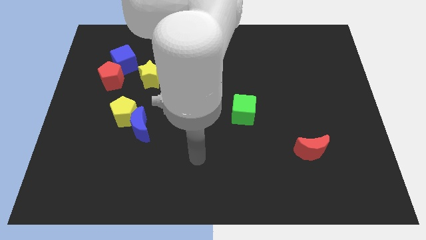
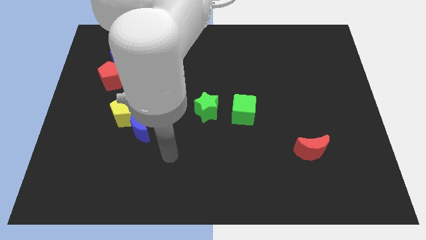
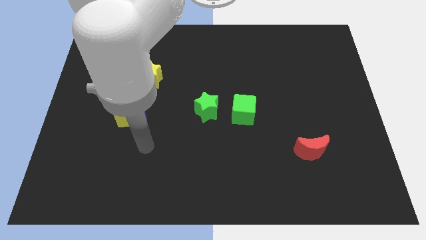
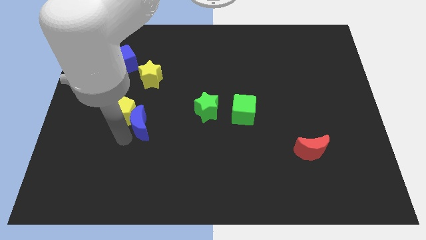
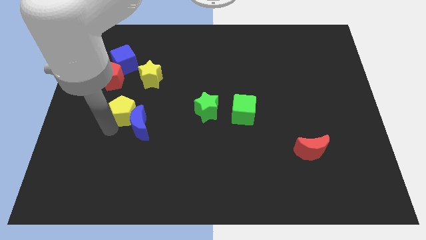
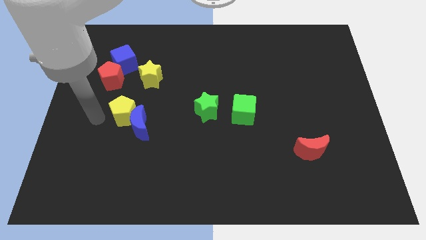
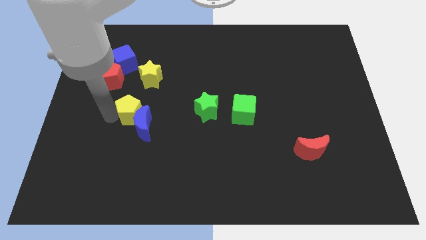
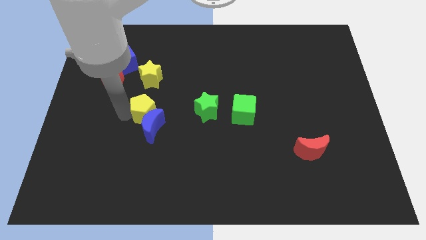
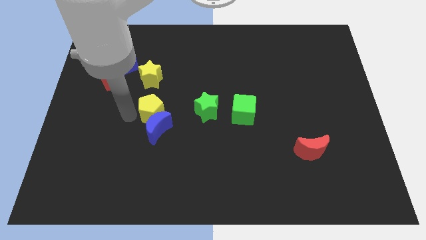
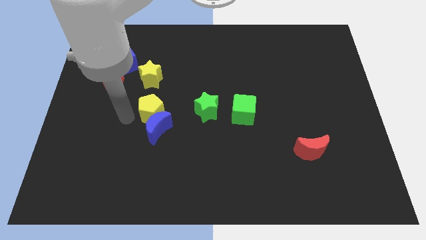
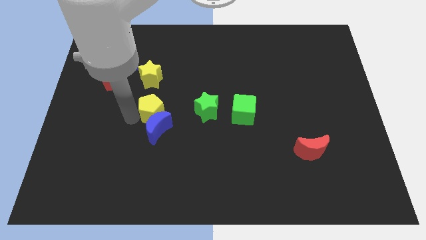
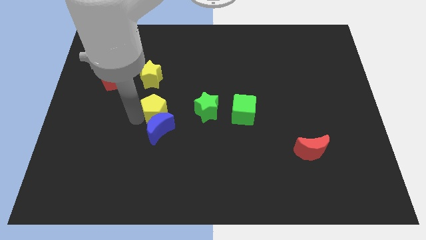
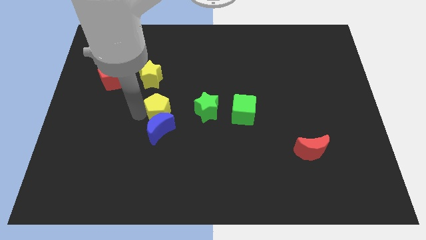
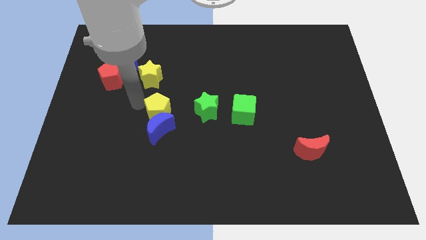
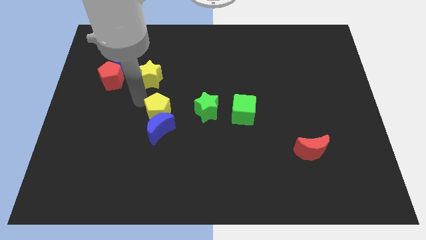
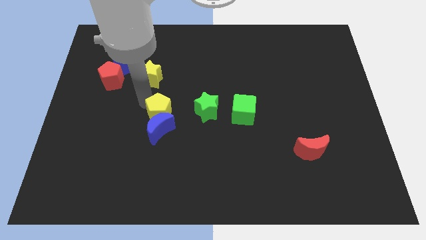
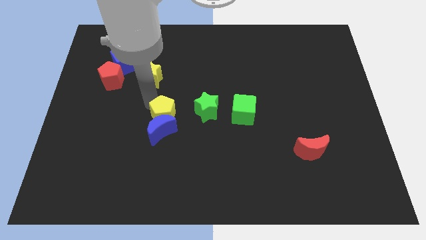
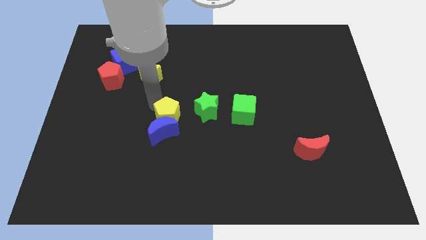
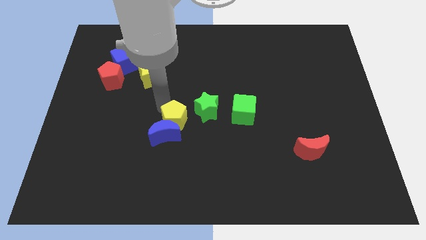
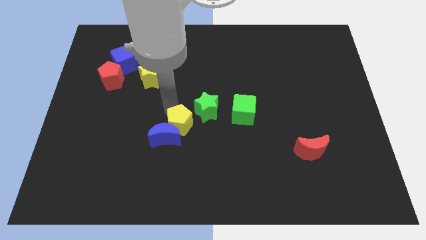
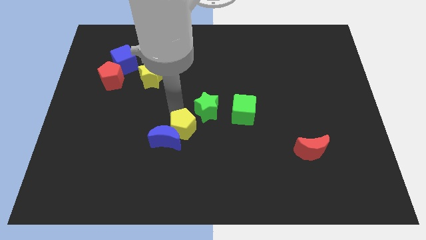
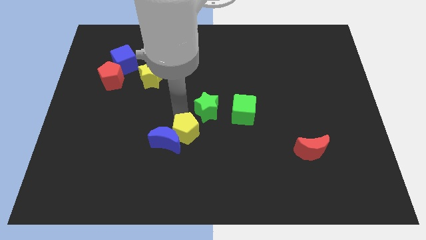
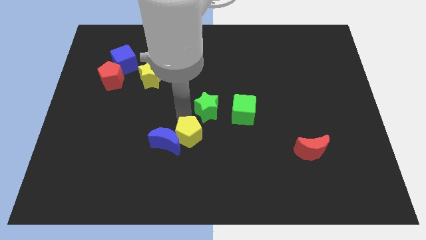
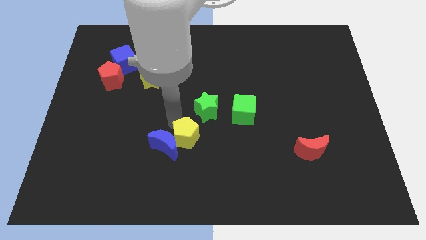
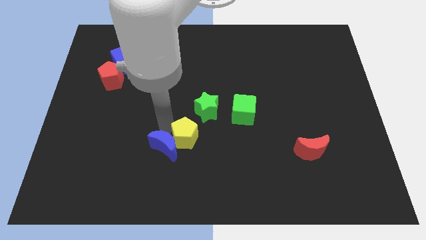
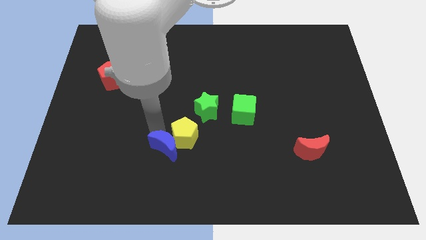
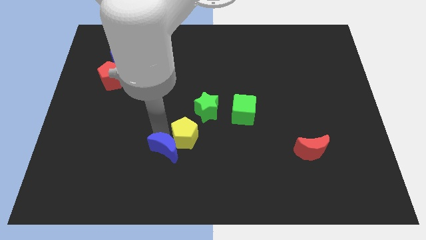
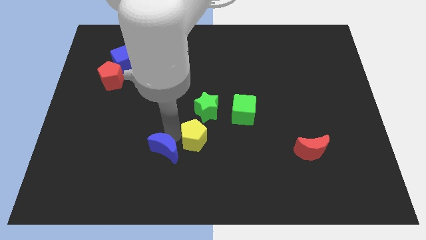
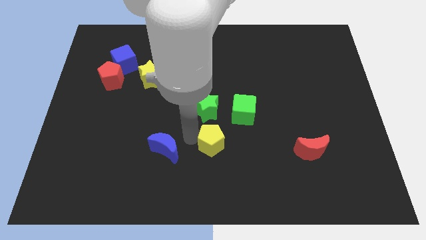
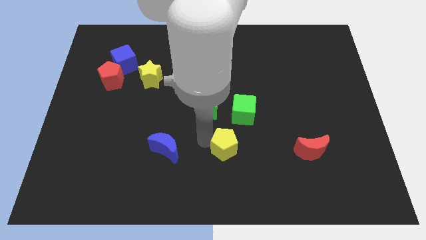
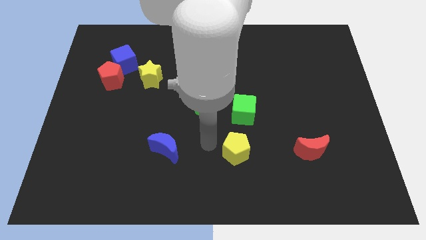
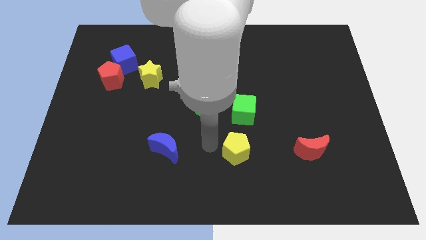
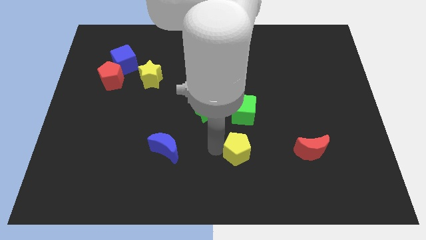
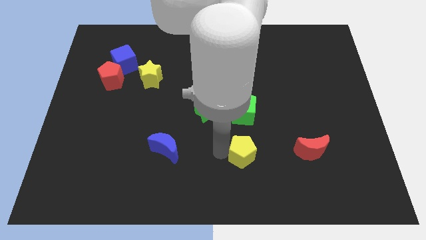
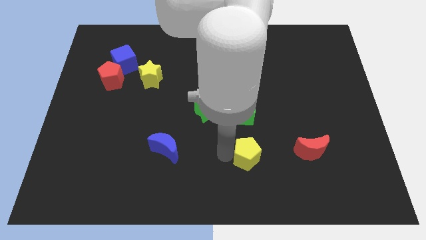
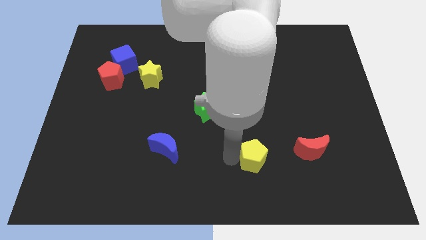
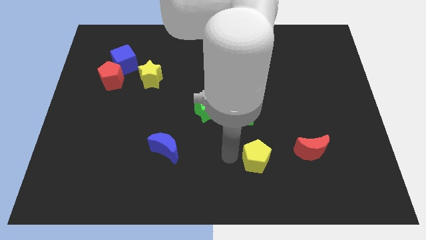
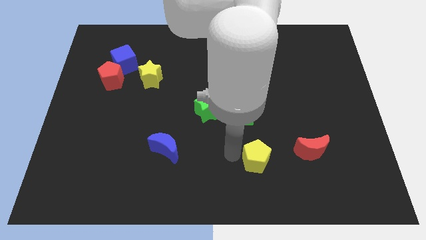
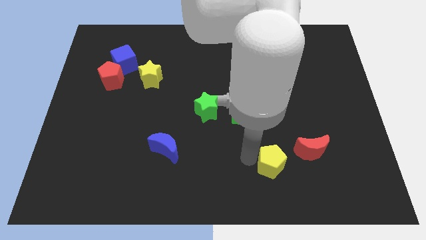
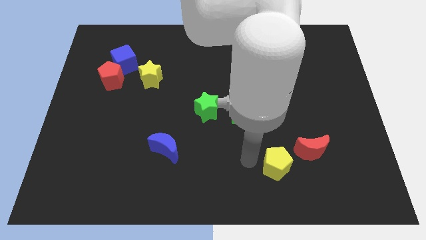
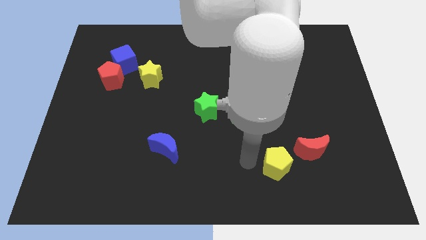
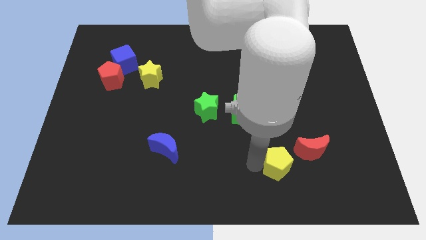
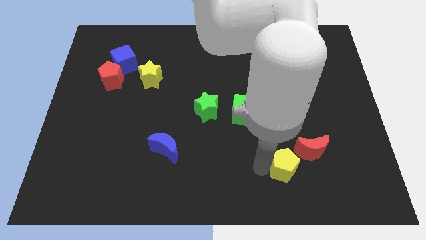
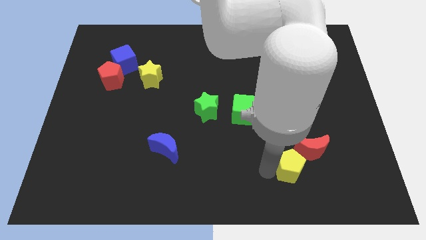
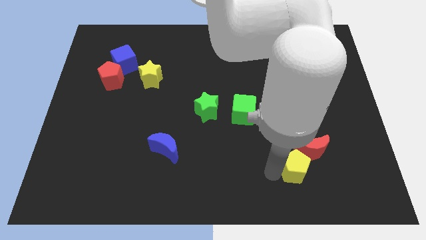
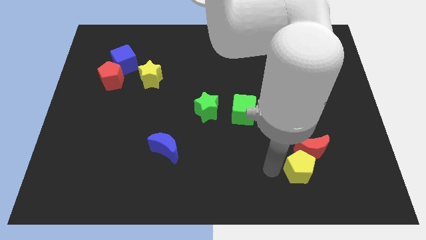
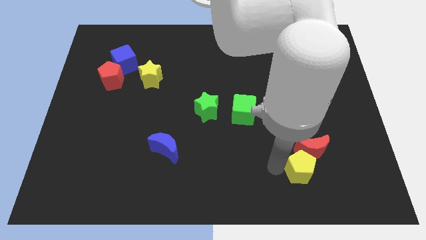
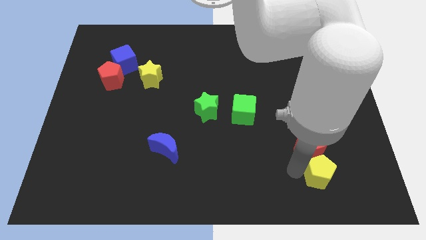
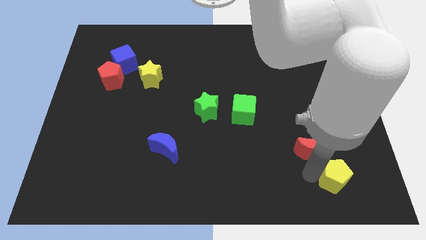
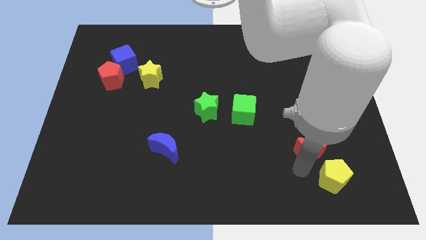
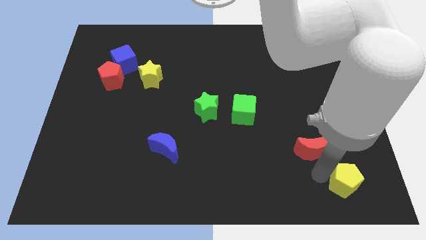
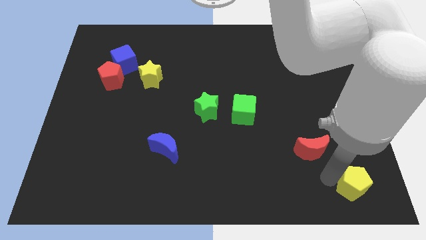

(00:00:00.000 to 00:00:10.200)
slide the yellow pentagon to the bottom right corner

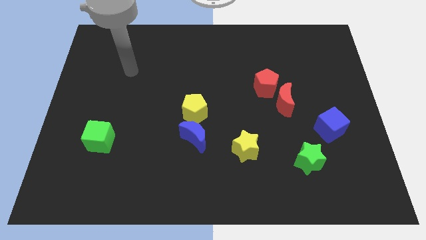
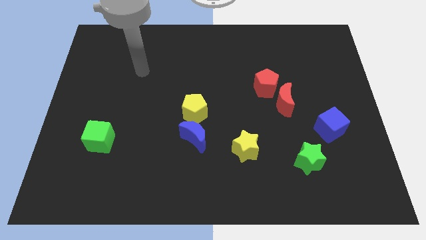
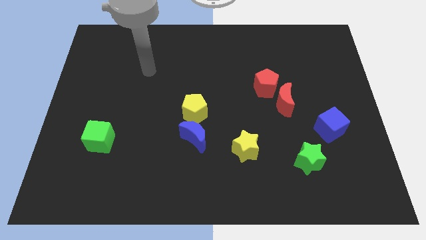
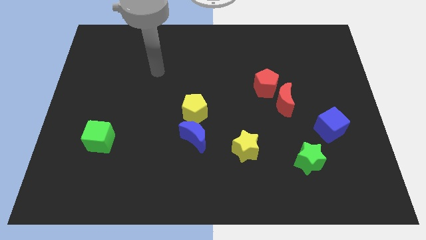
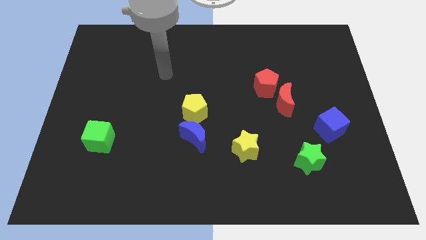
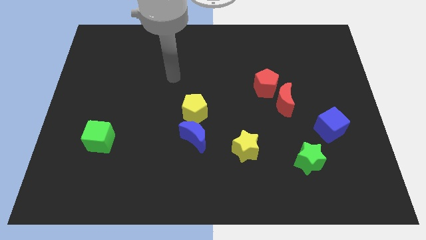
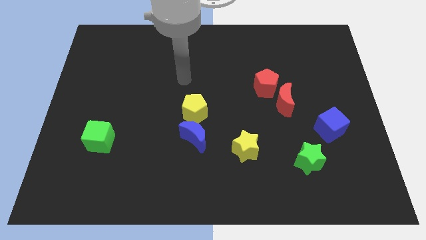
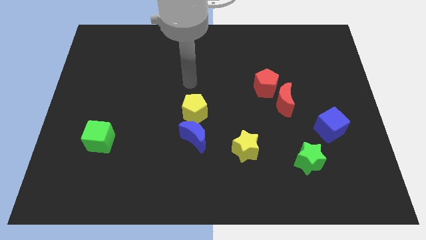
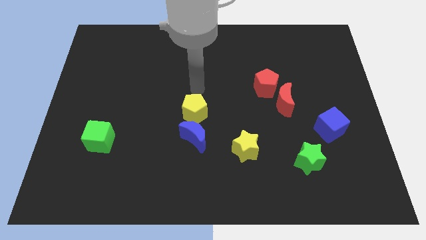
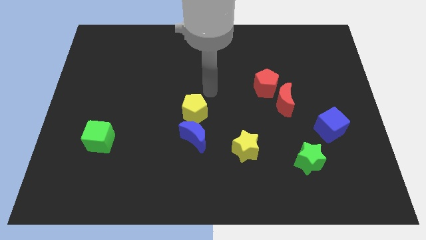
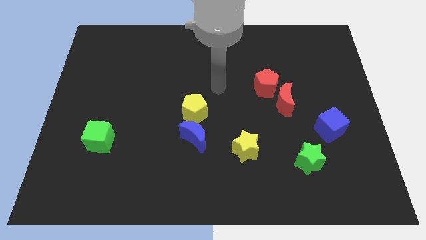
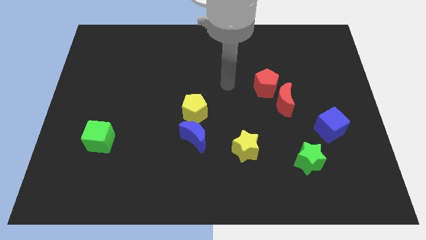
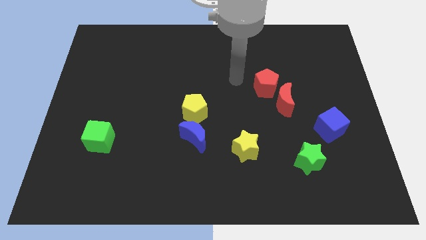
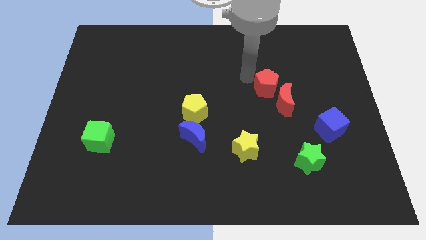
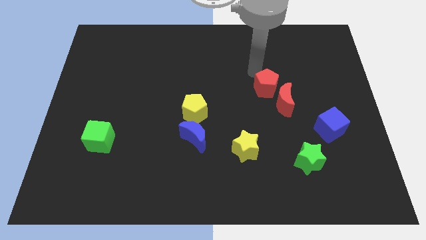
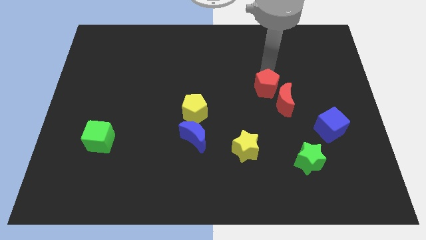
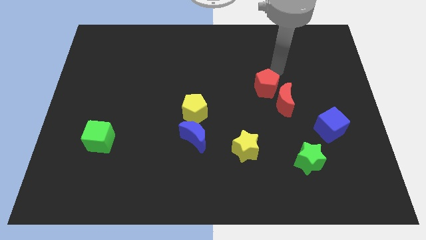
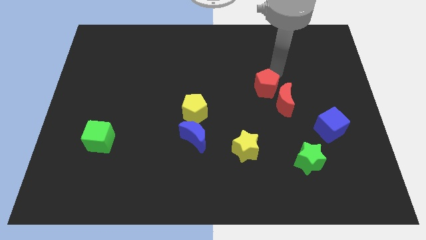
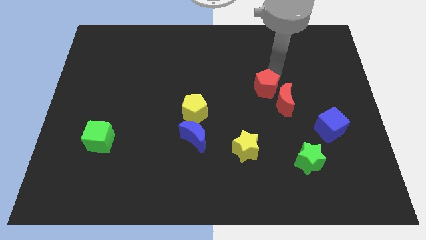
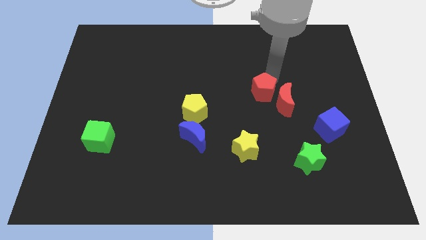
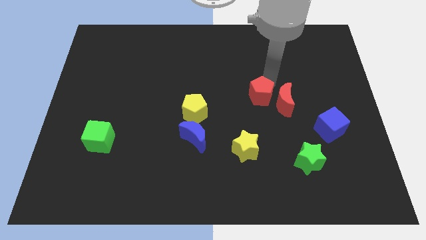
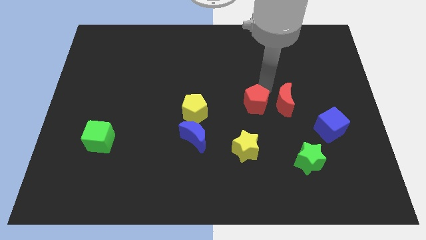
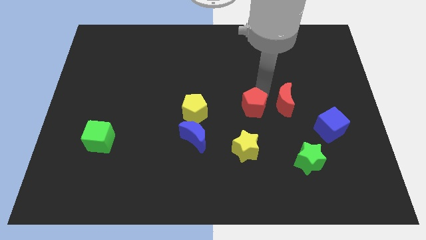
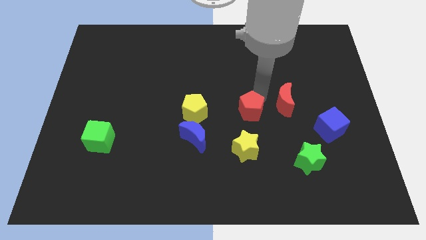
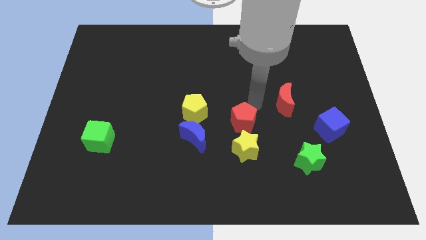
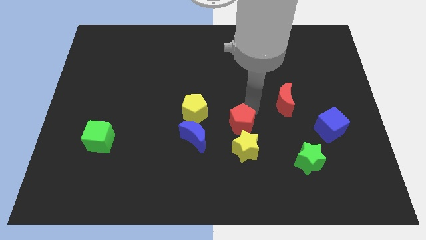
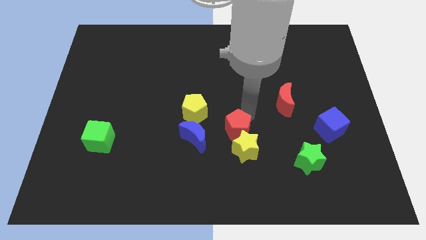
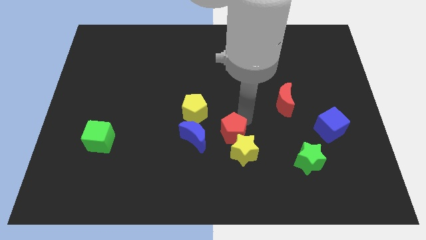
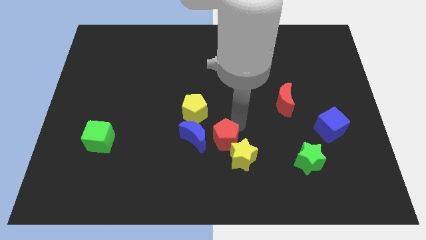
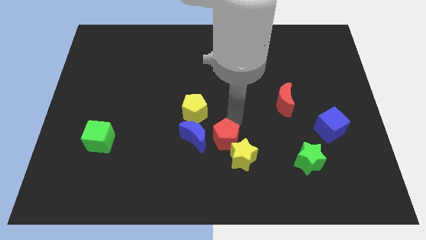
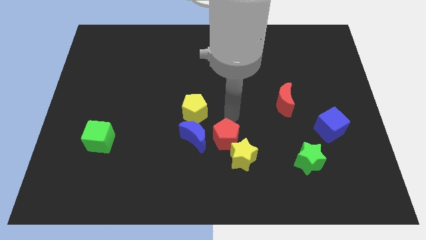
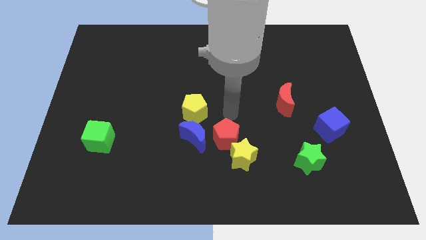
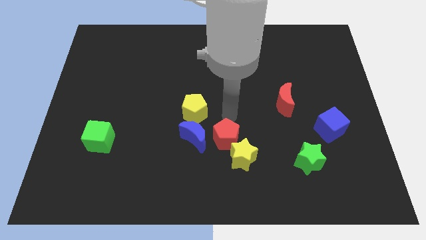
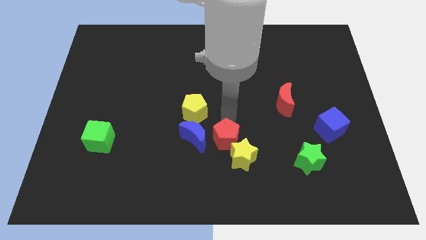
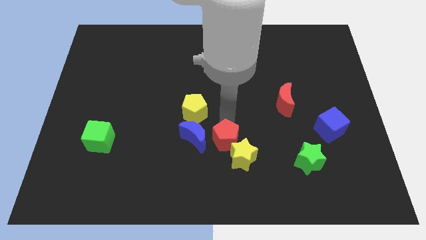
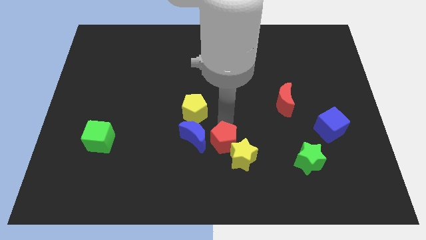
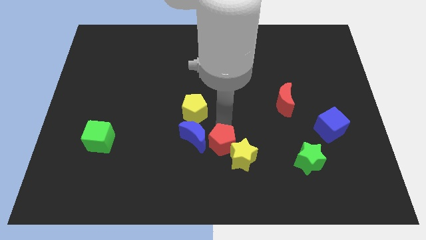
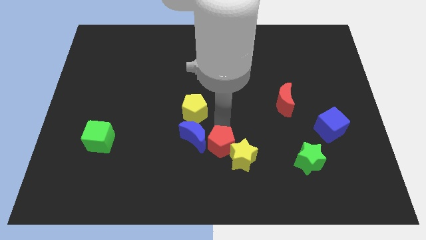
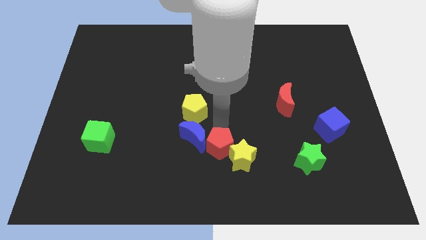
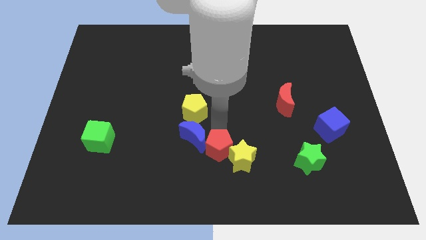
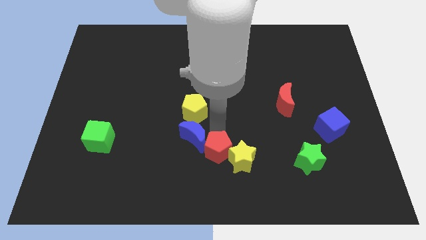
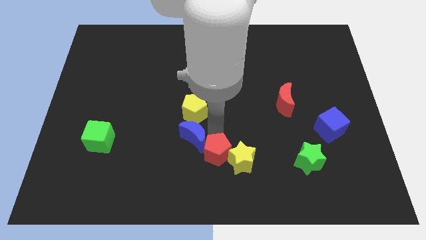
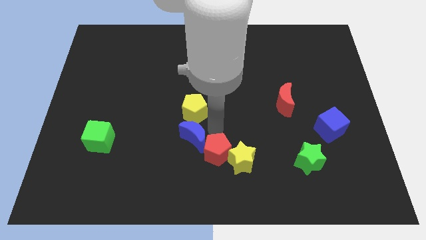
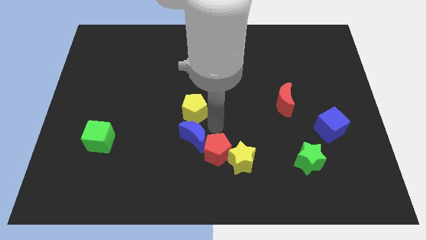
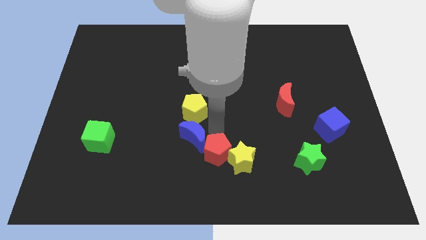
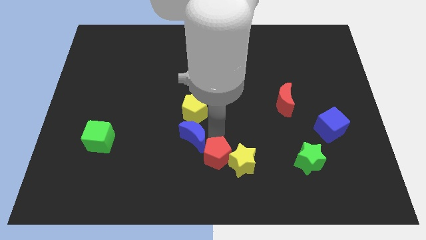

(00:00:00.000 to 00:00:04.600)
put the red pentagon to the bottom side
